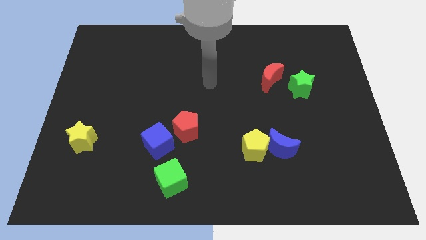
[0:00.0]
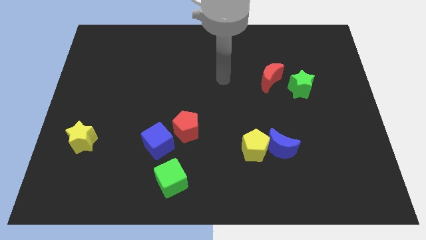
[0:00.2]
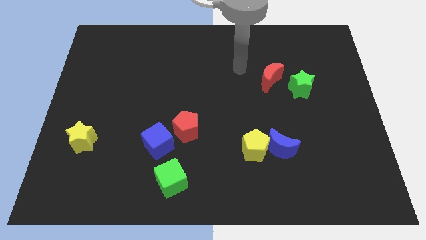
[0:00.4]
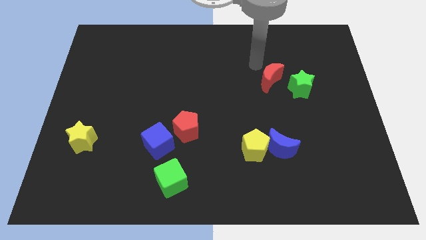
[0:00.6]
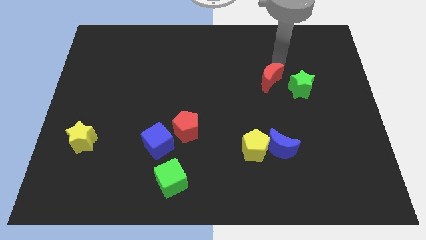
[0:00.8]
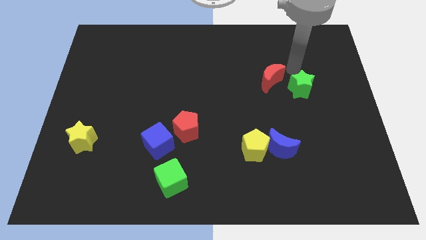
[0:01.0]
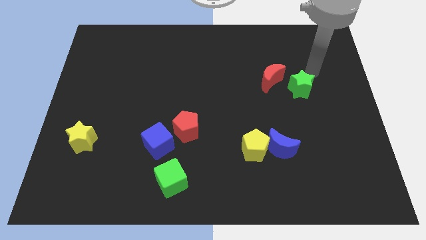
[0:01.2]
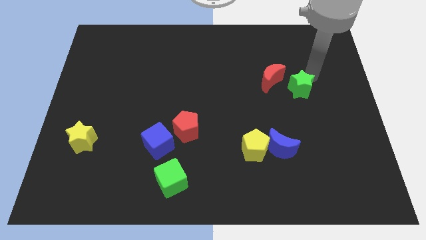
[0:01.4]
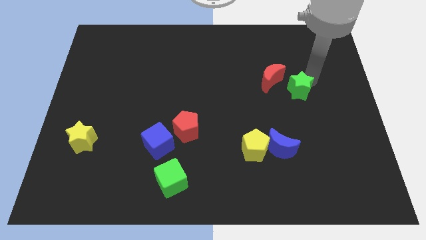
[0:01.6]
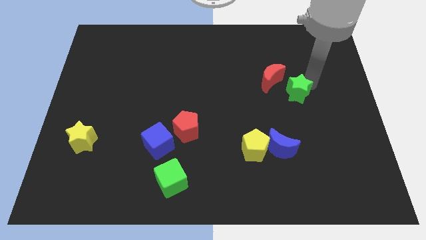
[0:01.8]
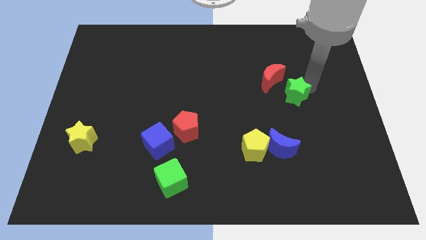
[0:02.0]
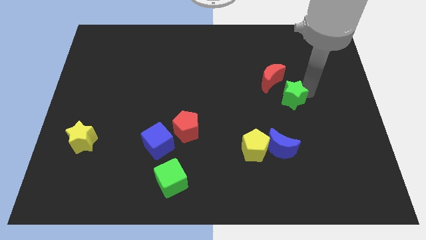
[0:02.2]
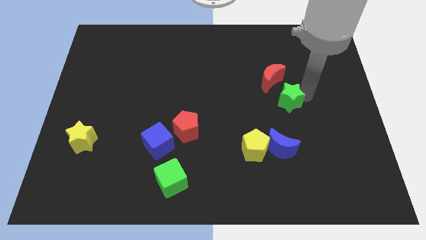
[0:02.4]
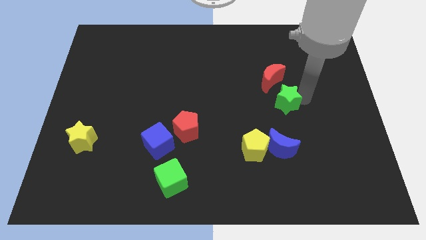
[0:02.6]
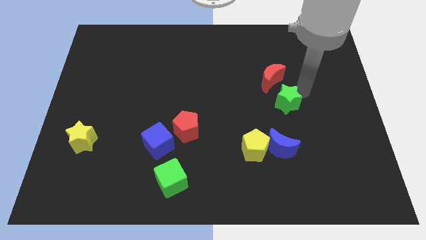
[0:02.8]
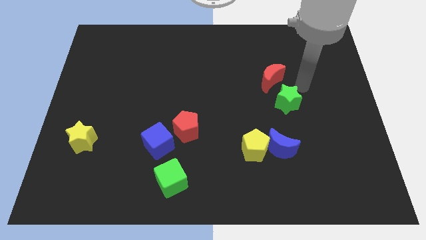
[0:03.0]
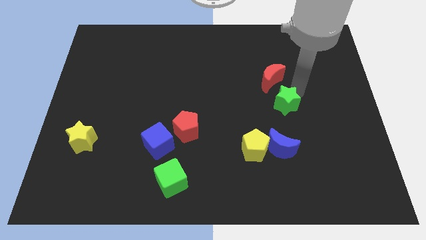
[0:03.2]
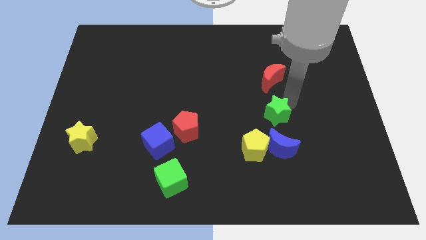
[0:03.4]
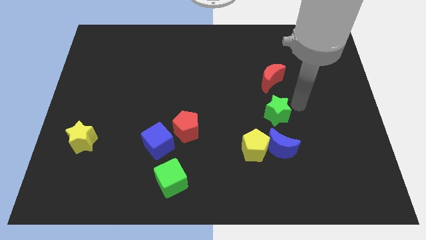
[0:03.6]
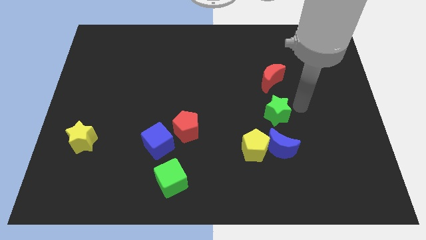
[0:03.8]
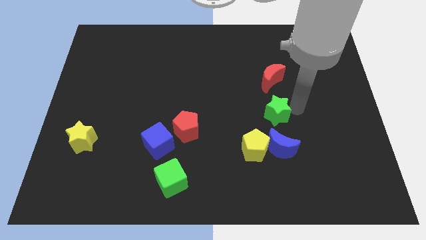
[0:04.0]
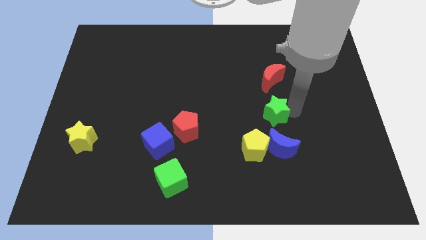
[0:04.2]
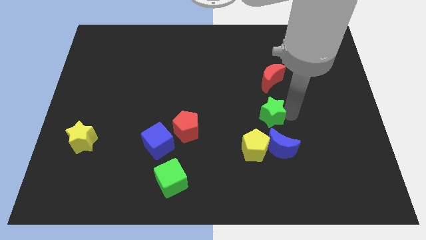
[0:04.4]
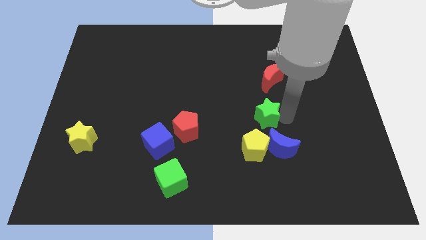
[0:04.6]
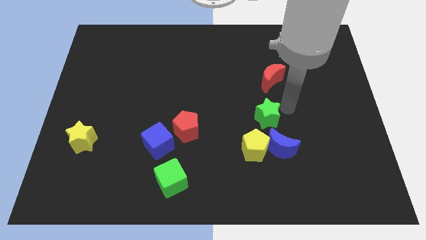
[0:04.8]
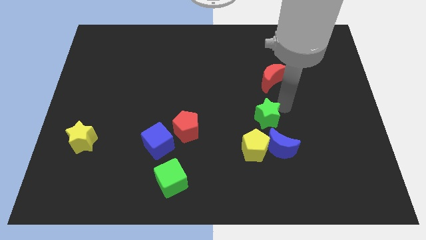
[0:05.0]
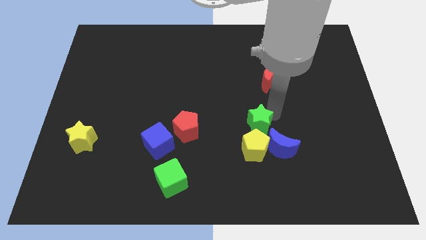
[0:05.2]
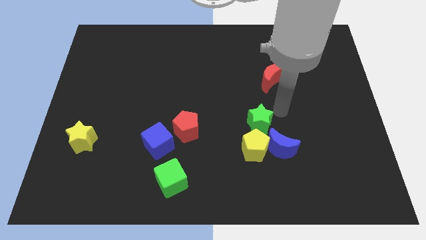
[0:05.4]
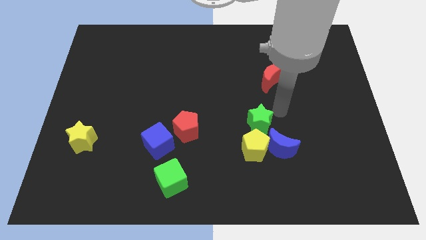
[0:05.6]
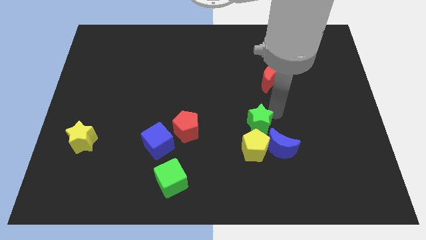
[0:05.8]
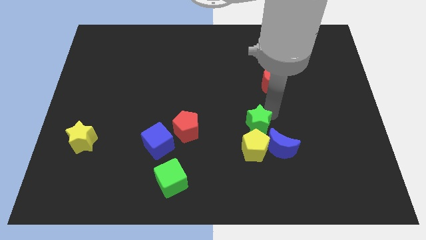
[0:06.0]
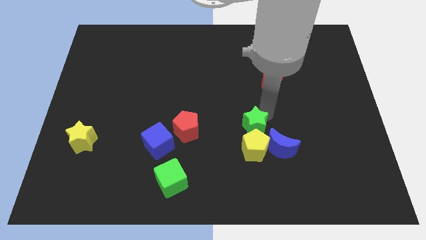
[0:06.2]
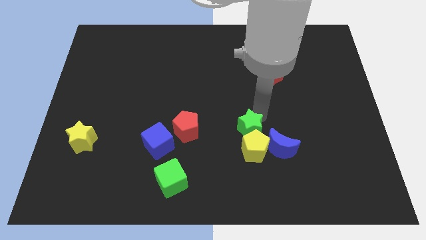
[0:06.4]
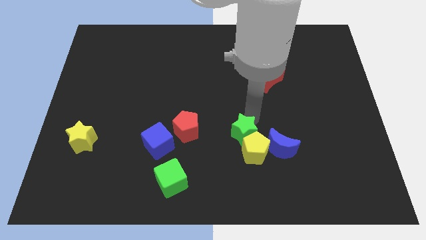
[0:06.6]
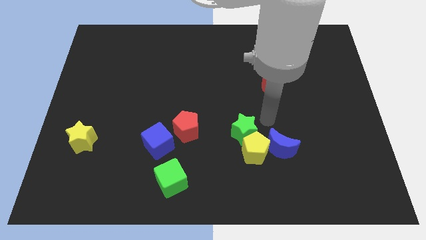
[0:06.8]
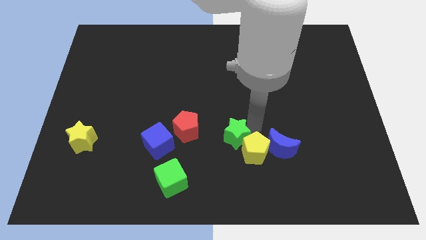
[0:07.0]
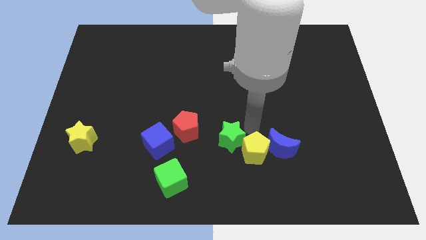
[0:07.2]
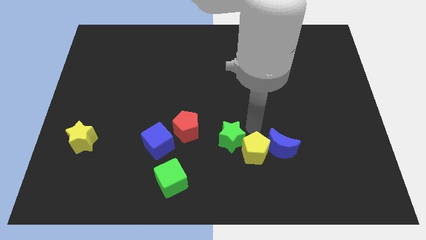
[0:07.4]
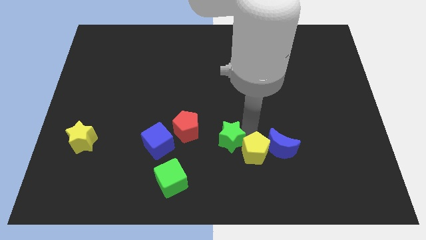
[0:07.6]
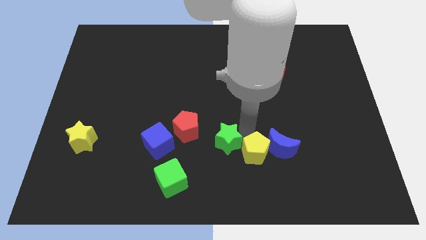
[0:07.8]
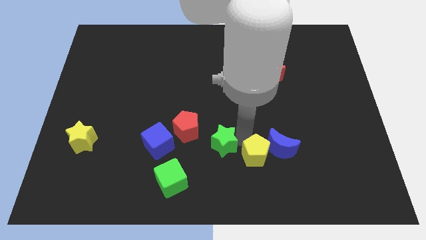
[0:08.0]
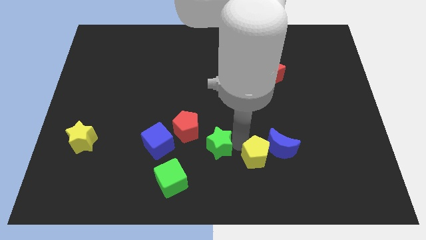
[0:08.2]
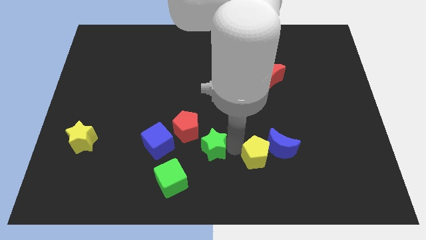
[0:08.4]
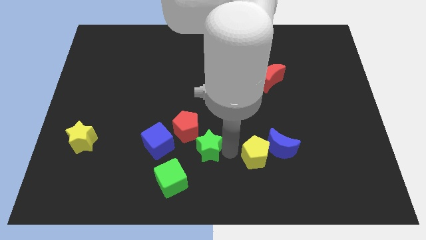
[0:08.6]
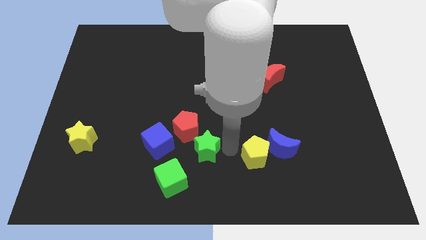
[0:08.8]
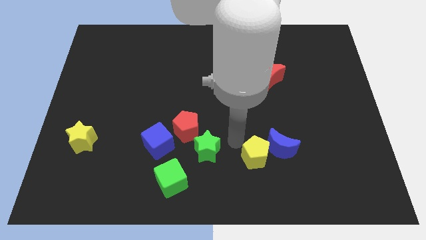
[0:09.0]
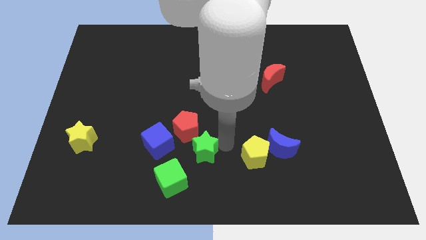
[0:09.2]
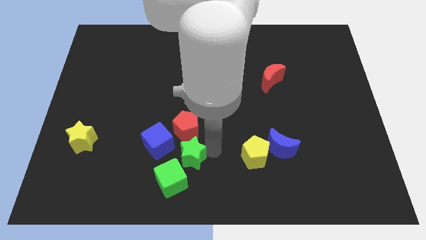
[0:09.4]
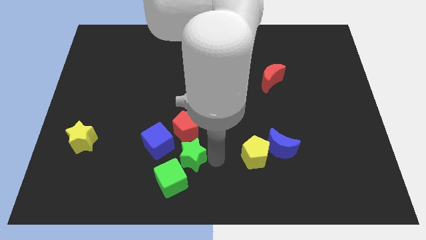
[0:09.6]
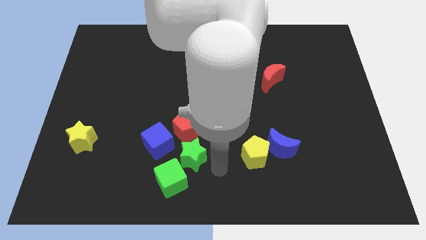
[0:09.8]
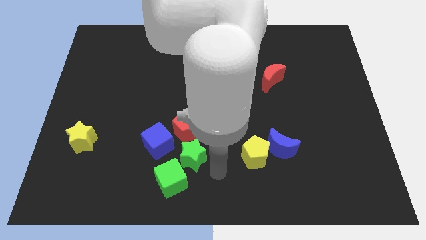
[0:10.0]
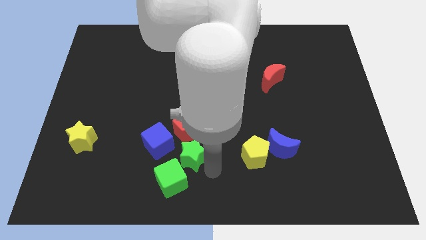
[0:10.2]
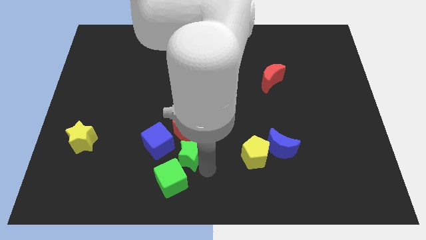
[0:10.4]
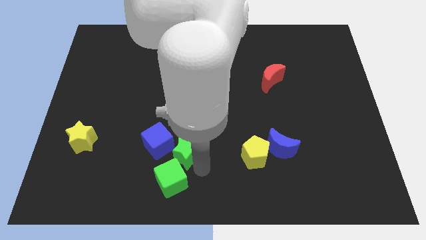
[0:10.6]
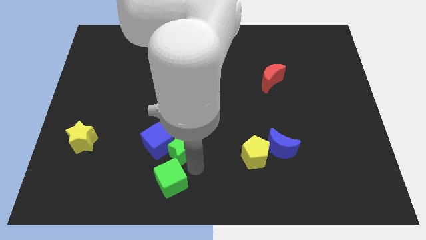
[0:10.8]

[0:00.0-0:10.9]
move the green star close to the blue cube

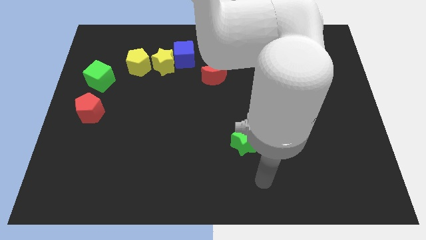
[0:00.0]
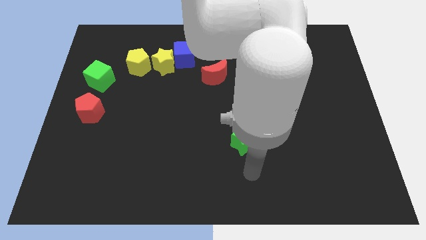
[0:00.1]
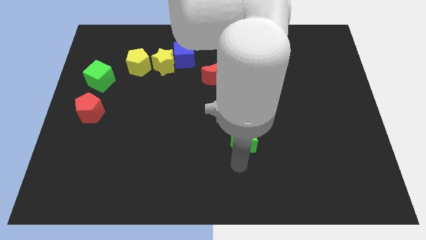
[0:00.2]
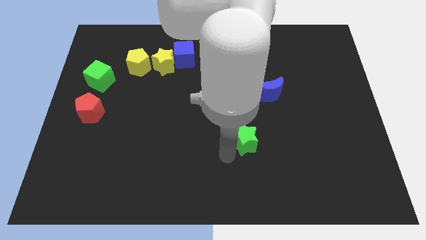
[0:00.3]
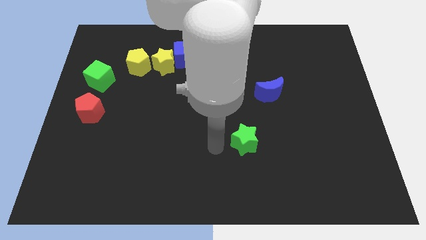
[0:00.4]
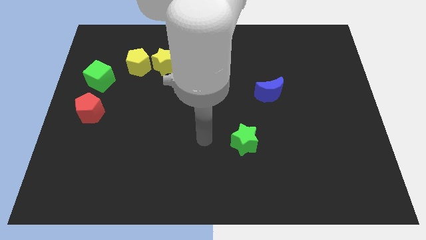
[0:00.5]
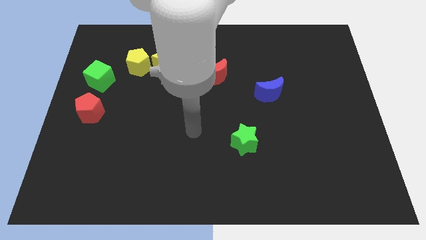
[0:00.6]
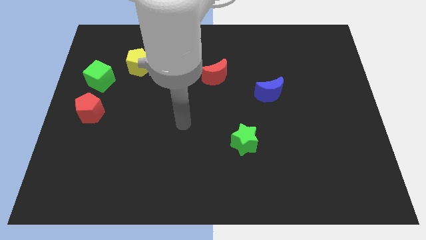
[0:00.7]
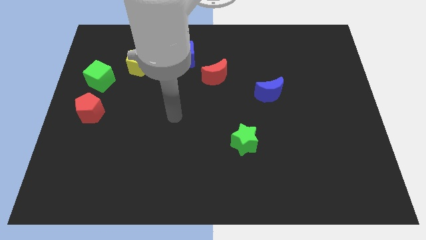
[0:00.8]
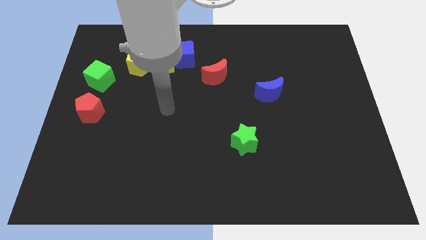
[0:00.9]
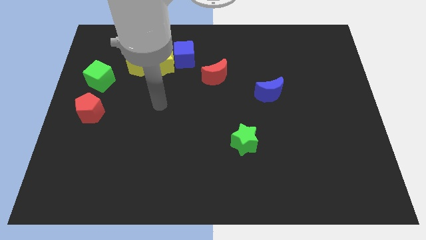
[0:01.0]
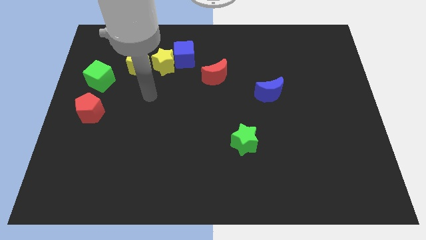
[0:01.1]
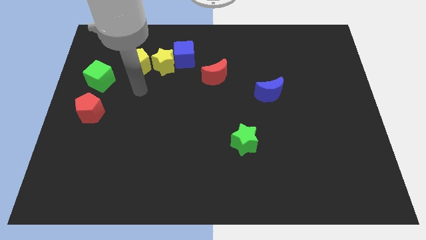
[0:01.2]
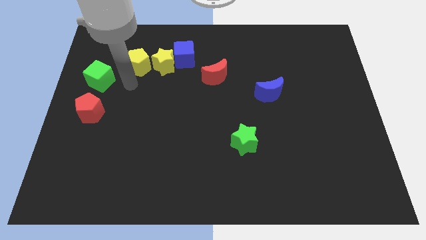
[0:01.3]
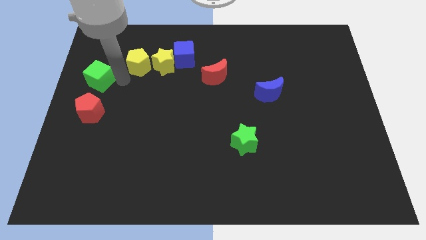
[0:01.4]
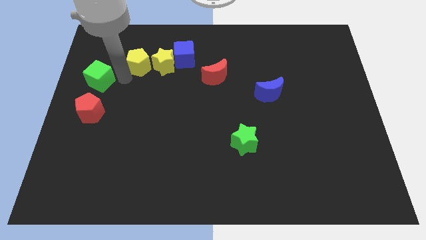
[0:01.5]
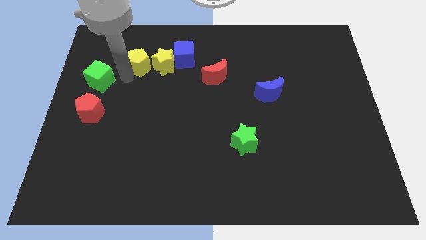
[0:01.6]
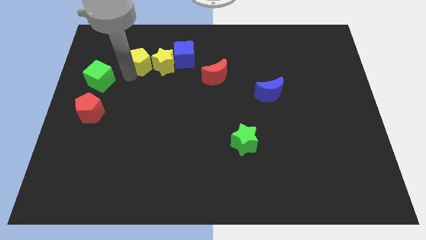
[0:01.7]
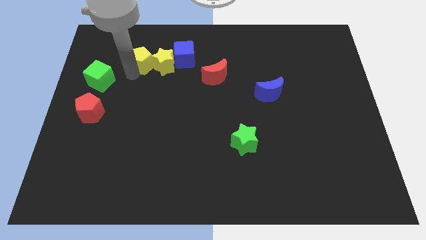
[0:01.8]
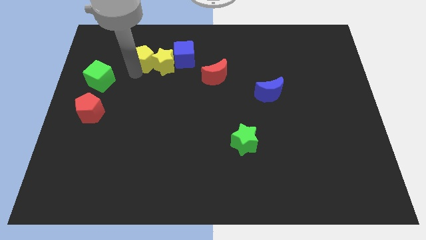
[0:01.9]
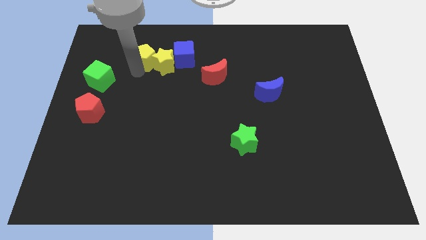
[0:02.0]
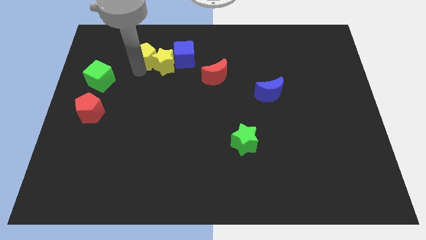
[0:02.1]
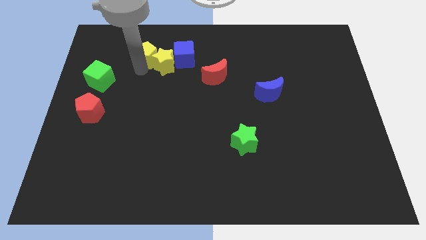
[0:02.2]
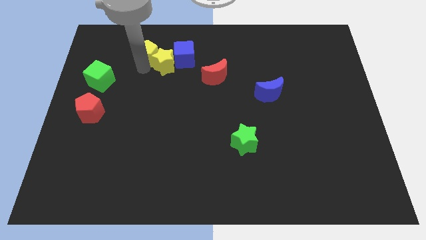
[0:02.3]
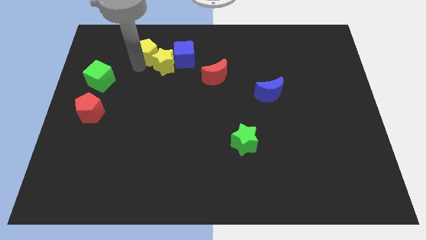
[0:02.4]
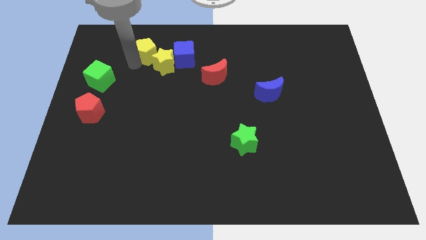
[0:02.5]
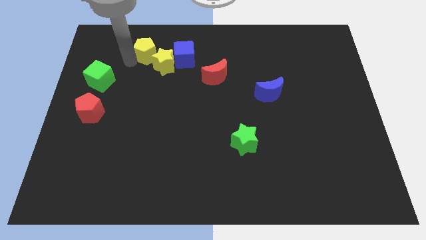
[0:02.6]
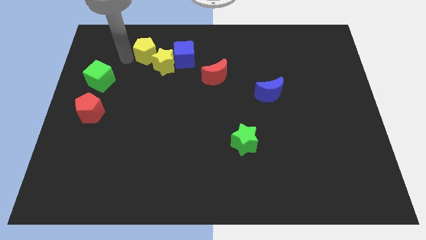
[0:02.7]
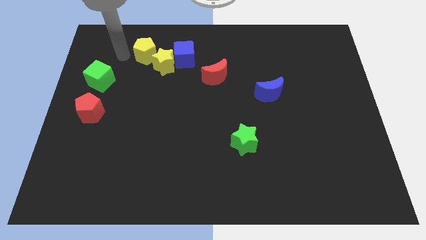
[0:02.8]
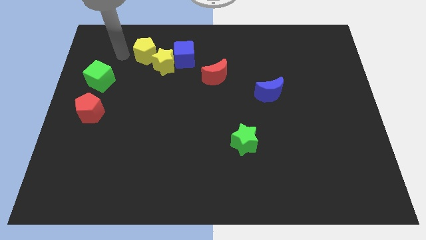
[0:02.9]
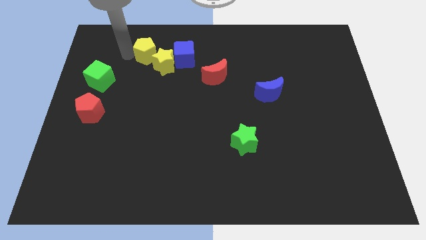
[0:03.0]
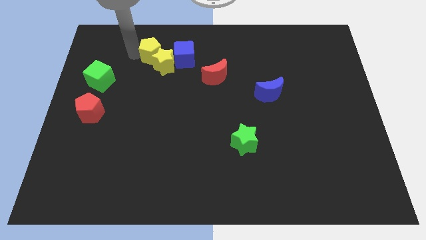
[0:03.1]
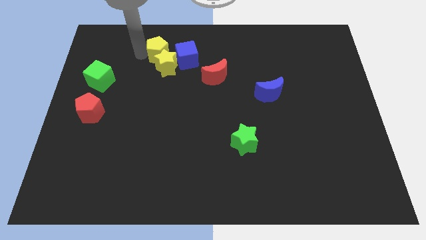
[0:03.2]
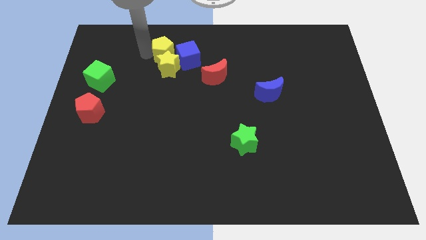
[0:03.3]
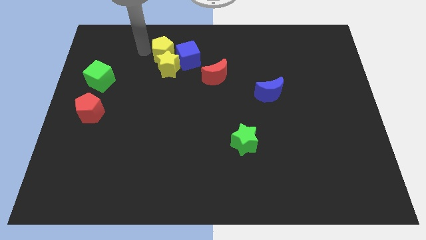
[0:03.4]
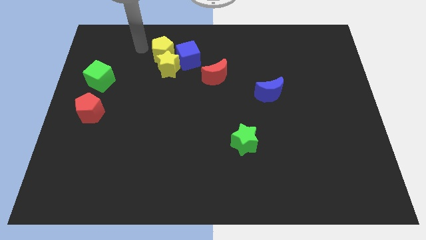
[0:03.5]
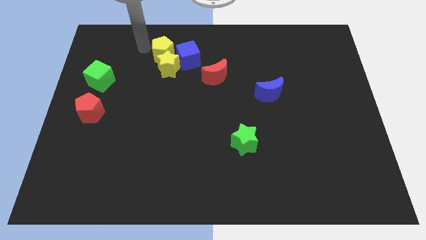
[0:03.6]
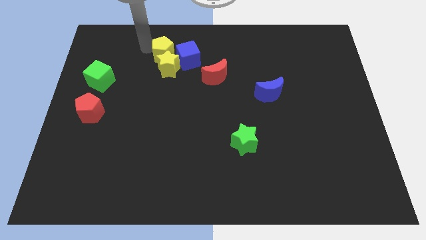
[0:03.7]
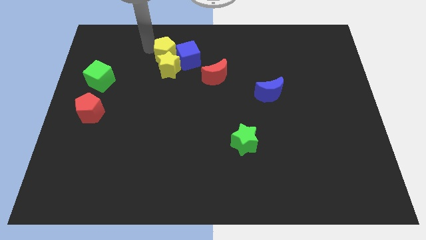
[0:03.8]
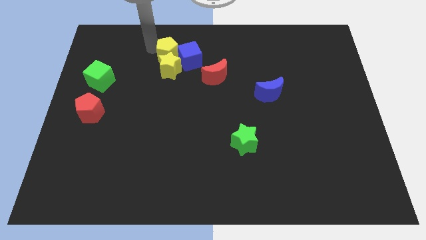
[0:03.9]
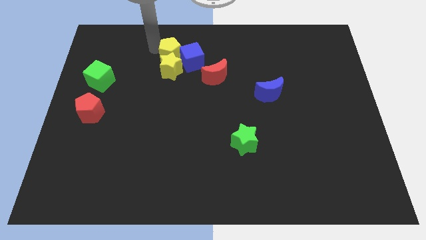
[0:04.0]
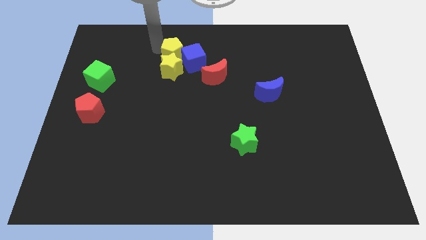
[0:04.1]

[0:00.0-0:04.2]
push the yellow pentagon next to the blue cube
